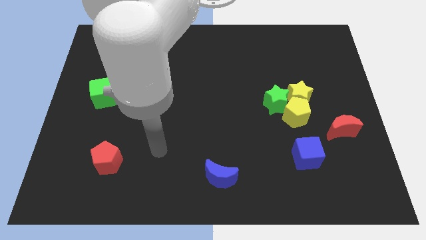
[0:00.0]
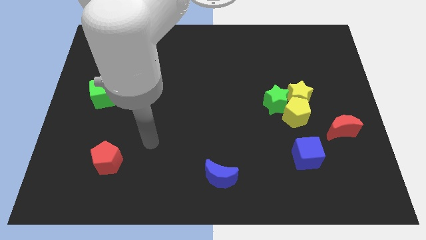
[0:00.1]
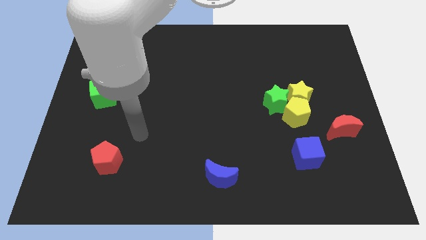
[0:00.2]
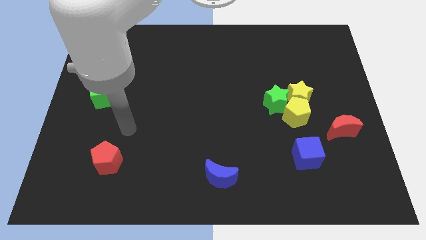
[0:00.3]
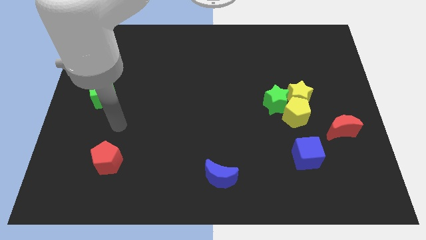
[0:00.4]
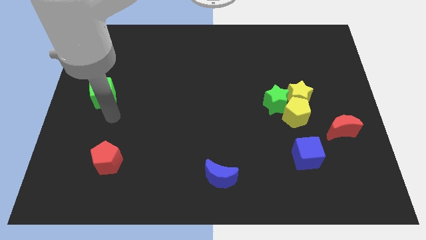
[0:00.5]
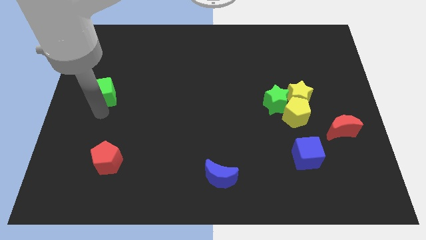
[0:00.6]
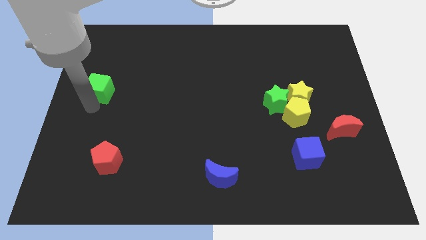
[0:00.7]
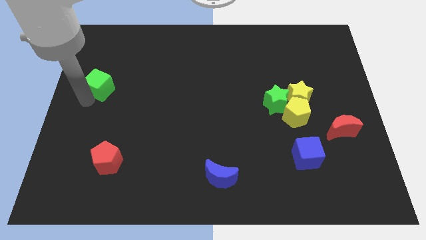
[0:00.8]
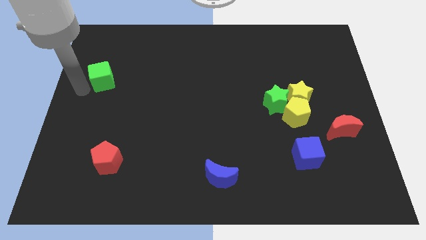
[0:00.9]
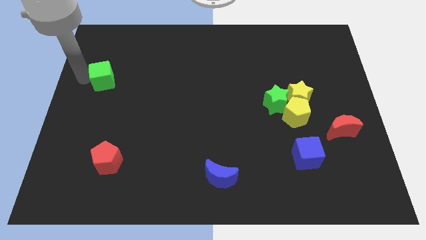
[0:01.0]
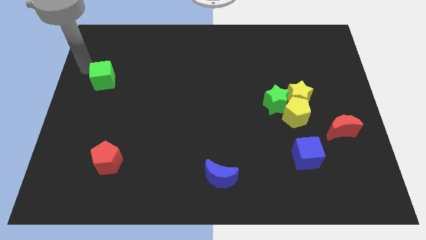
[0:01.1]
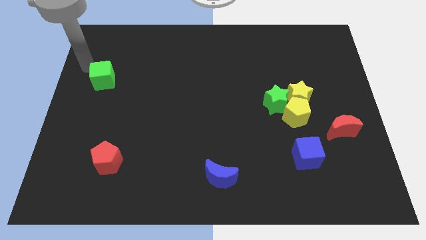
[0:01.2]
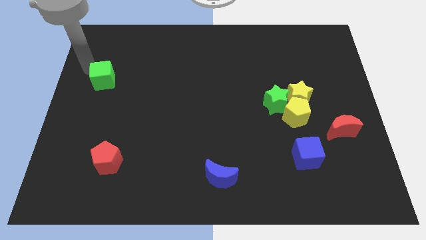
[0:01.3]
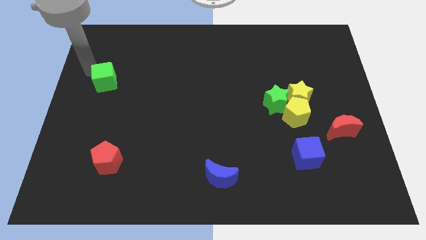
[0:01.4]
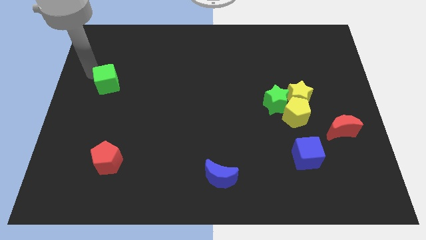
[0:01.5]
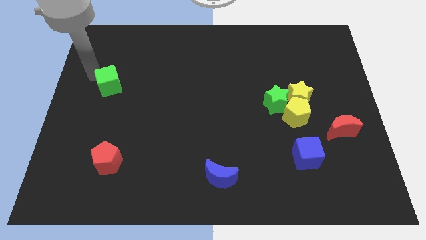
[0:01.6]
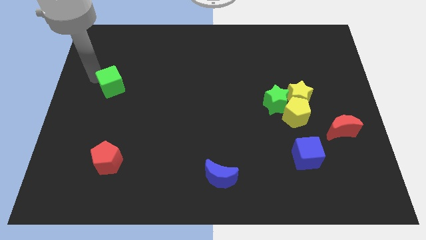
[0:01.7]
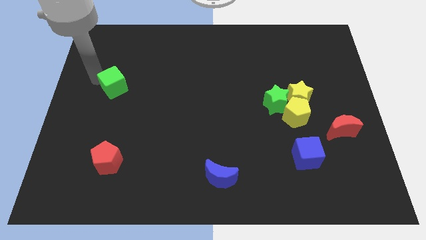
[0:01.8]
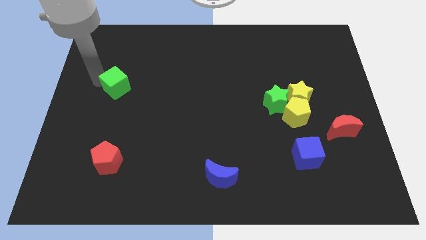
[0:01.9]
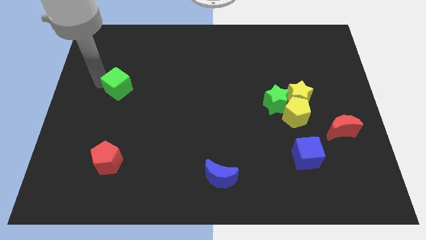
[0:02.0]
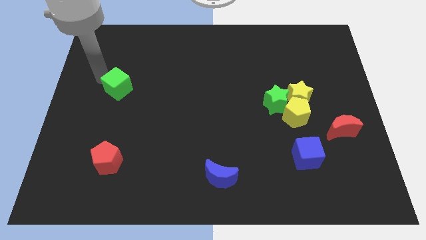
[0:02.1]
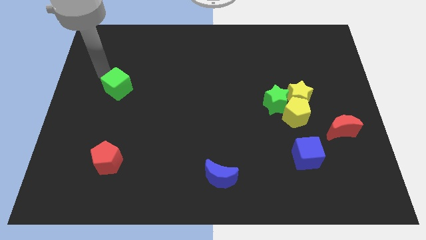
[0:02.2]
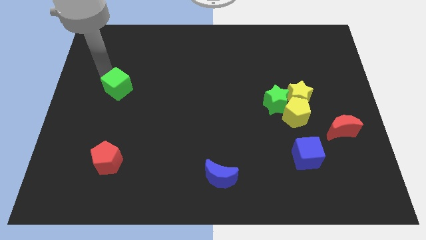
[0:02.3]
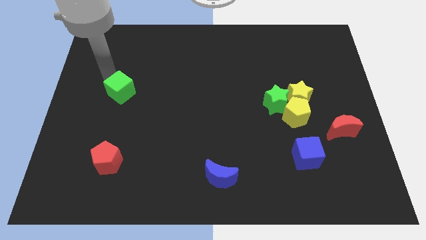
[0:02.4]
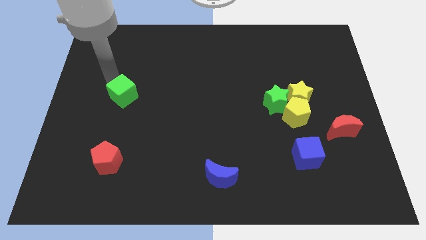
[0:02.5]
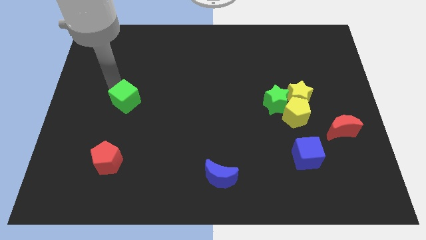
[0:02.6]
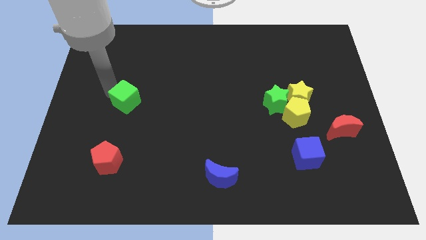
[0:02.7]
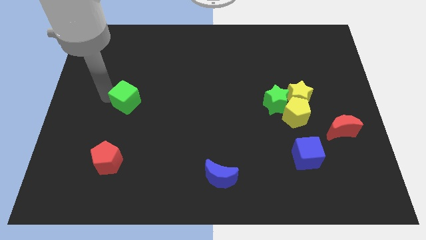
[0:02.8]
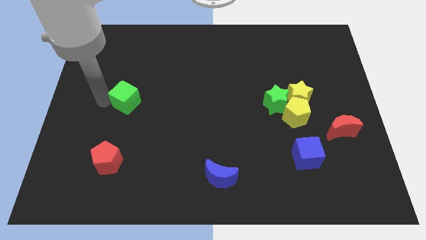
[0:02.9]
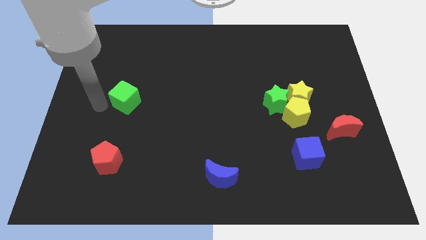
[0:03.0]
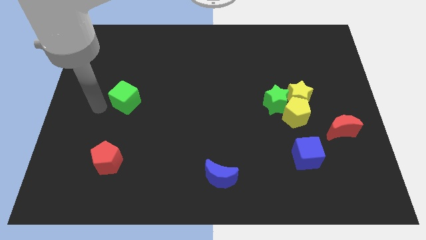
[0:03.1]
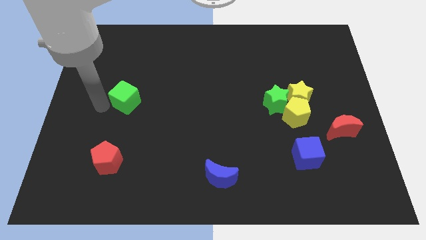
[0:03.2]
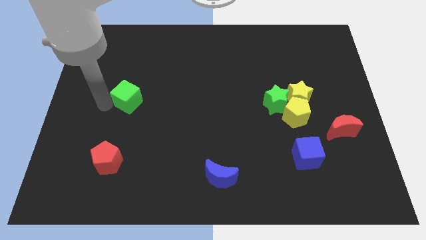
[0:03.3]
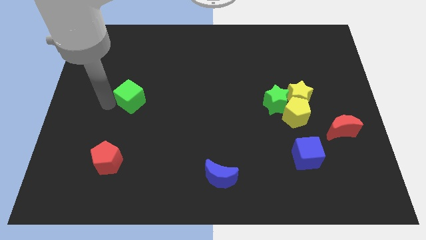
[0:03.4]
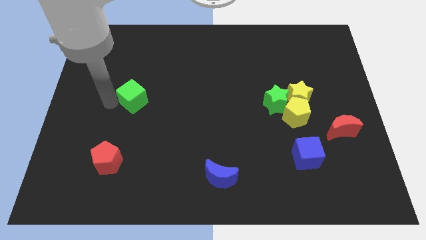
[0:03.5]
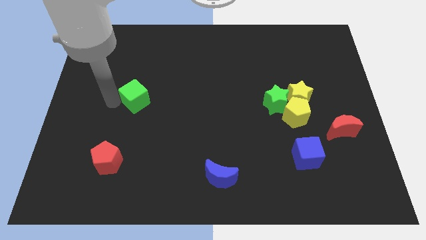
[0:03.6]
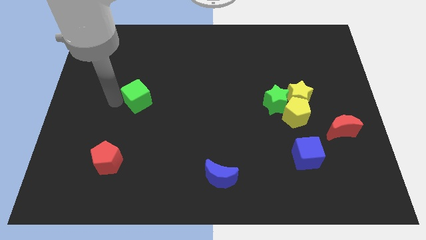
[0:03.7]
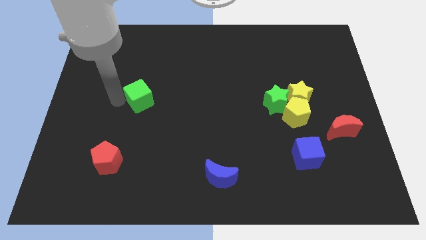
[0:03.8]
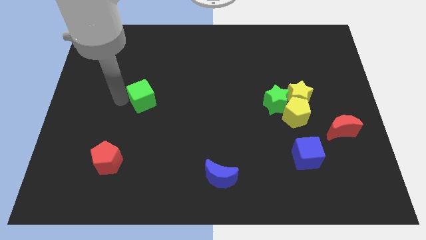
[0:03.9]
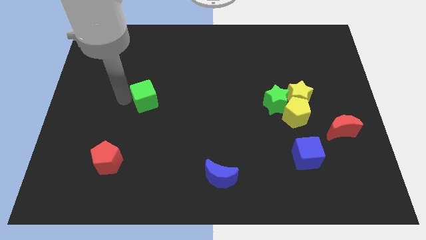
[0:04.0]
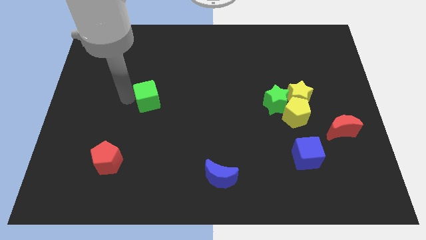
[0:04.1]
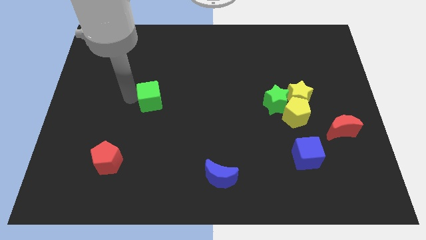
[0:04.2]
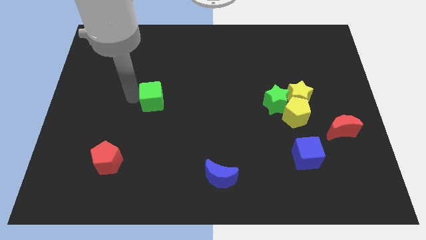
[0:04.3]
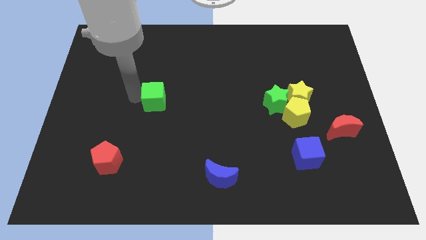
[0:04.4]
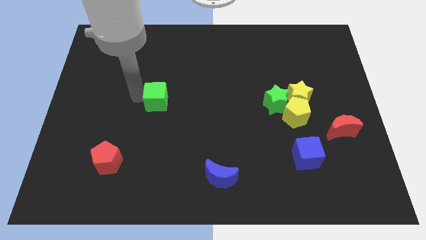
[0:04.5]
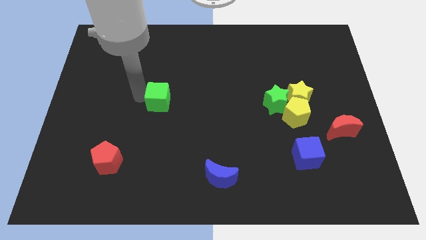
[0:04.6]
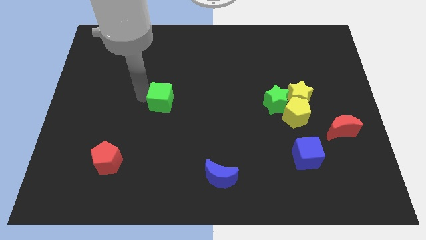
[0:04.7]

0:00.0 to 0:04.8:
push the green cube to the middle

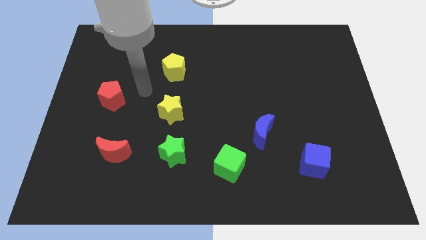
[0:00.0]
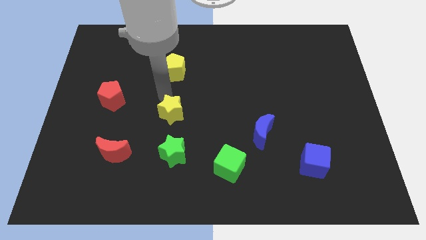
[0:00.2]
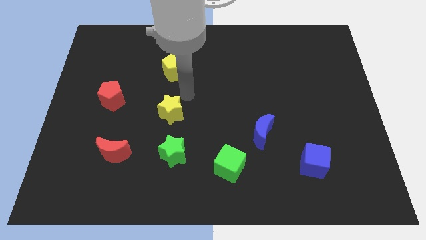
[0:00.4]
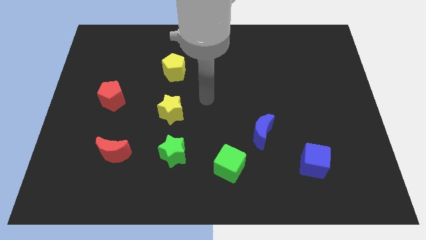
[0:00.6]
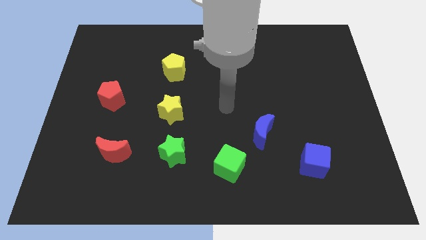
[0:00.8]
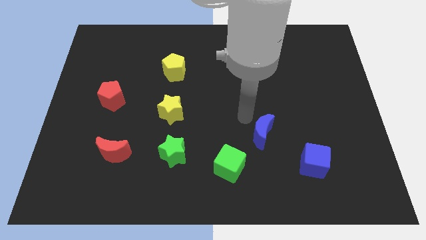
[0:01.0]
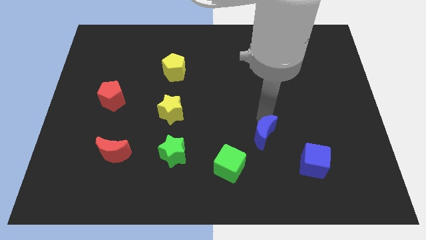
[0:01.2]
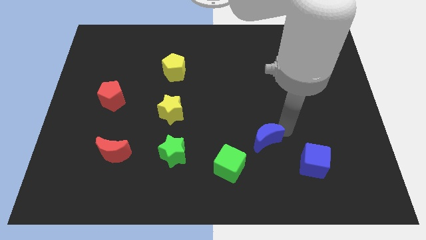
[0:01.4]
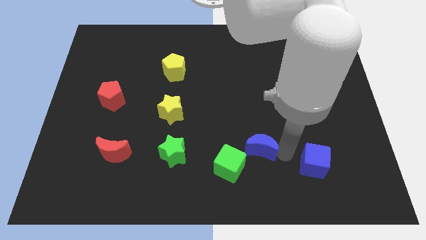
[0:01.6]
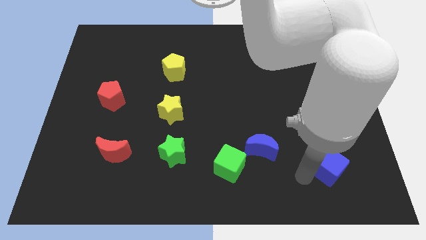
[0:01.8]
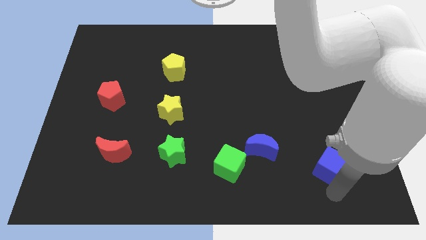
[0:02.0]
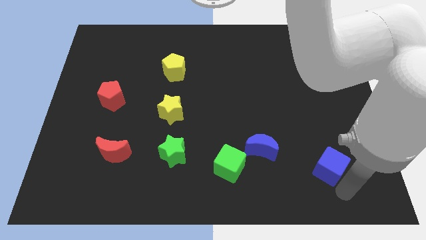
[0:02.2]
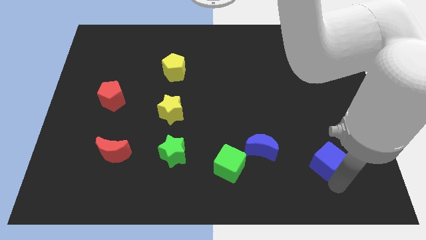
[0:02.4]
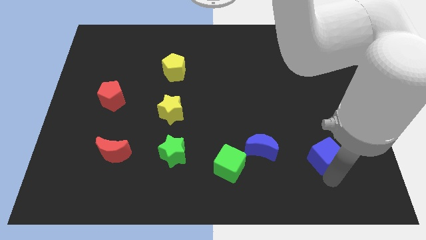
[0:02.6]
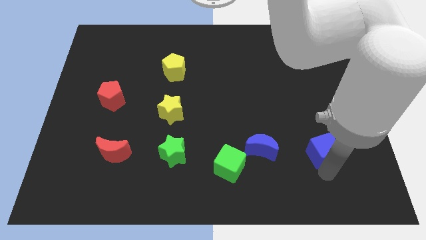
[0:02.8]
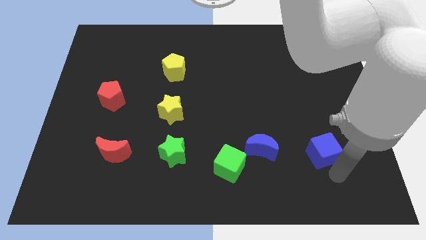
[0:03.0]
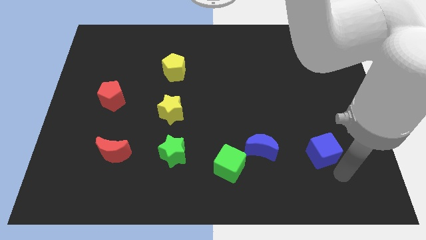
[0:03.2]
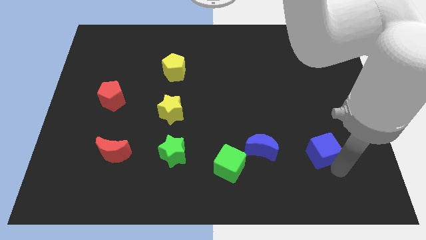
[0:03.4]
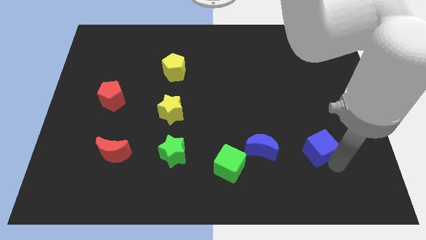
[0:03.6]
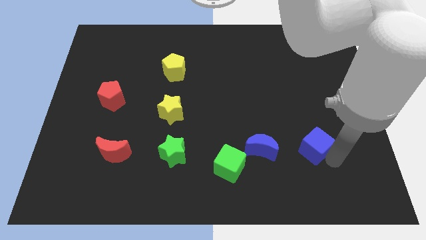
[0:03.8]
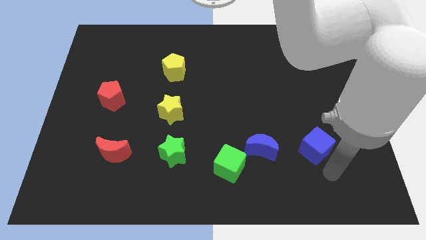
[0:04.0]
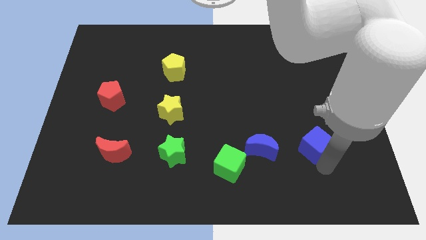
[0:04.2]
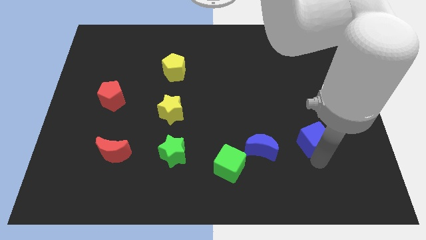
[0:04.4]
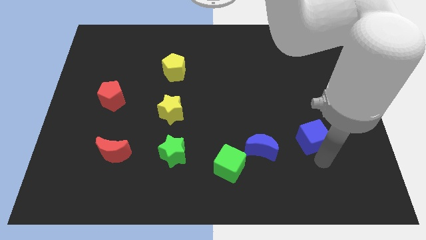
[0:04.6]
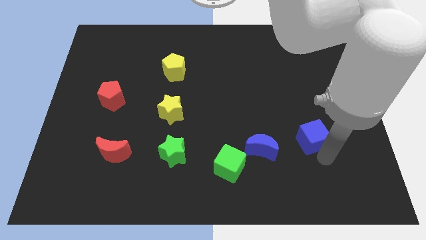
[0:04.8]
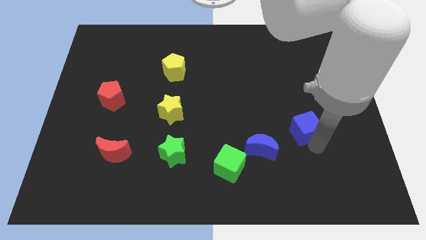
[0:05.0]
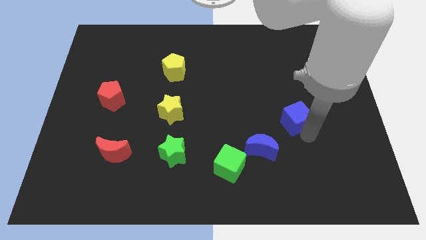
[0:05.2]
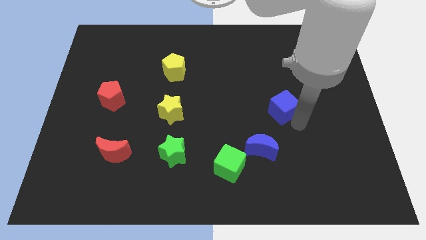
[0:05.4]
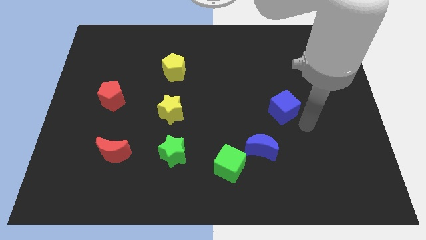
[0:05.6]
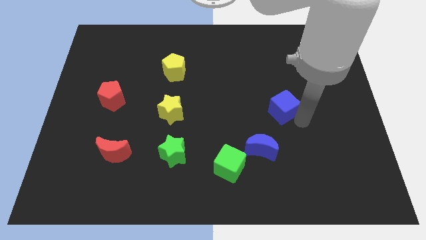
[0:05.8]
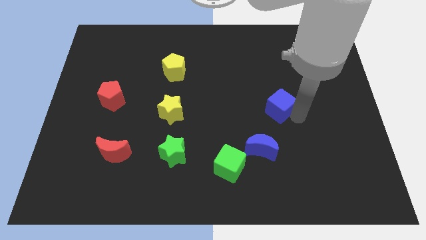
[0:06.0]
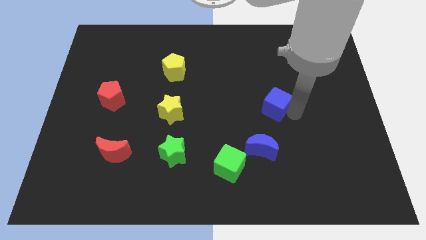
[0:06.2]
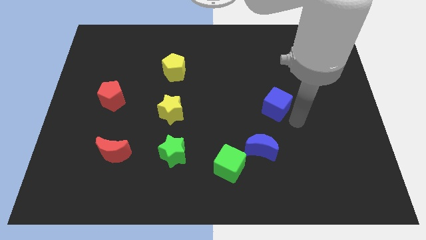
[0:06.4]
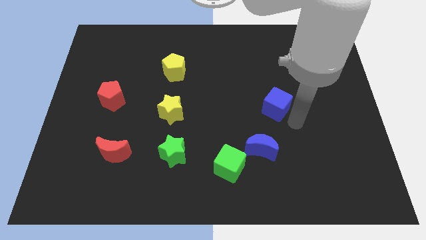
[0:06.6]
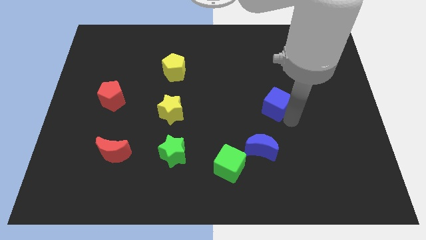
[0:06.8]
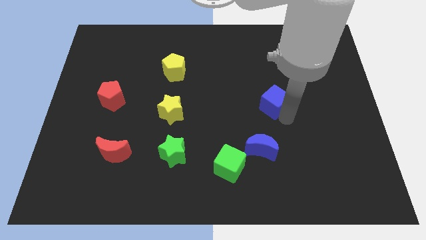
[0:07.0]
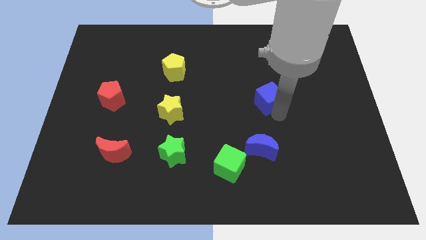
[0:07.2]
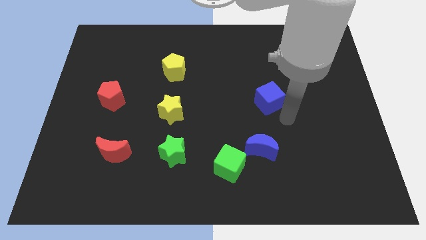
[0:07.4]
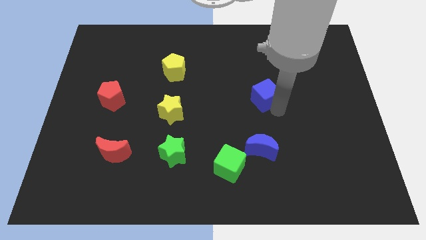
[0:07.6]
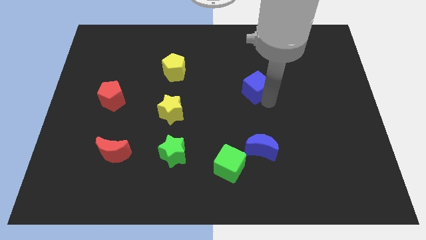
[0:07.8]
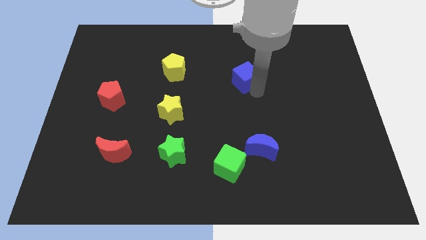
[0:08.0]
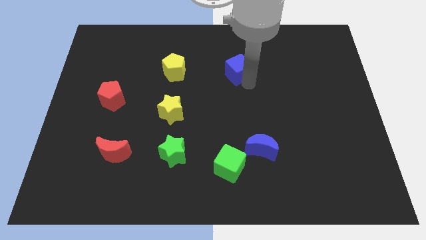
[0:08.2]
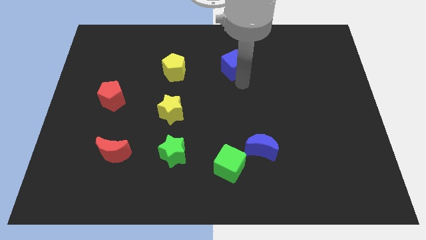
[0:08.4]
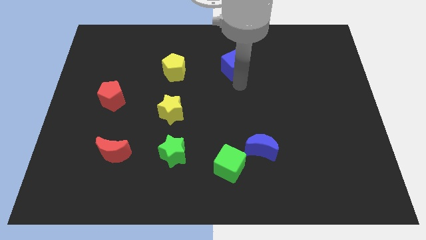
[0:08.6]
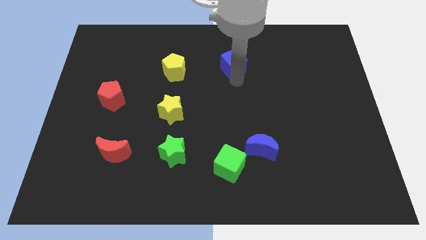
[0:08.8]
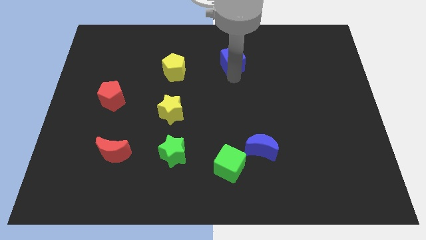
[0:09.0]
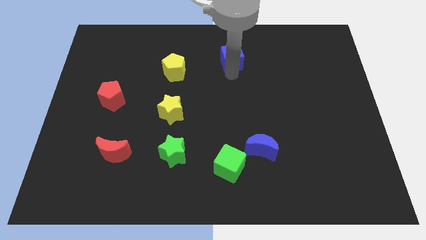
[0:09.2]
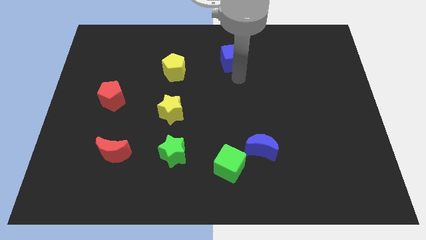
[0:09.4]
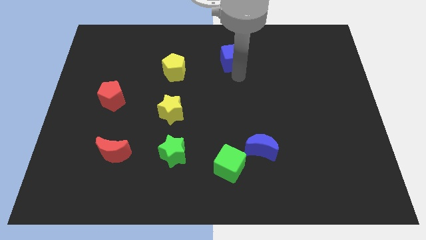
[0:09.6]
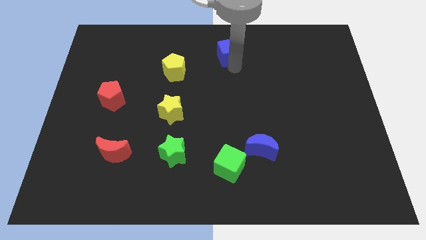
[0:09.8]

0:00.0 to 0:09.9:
put the blue cube to the top side
